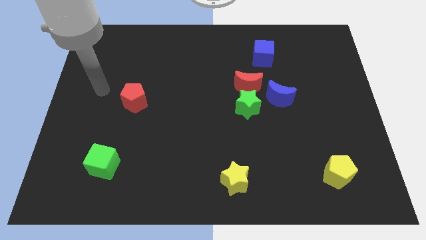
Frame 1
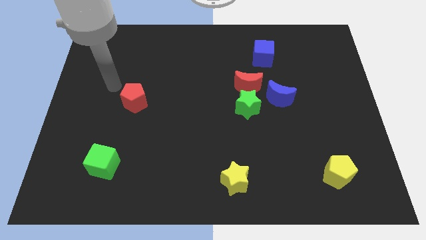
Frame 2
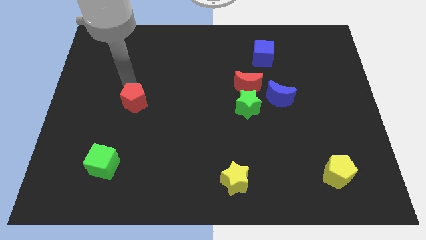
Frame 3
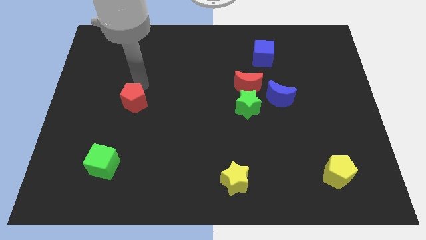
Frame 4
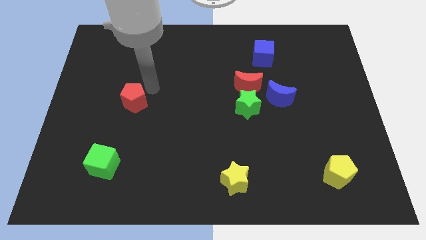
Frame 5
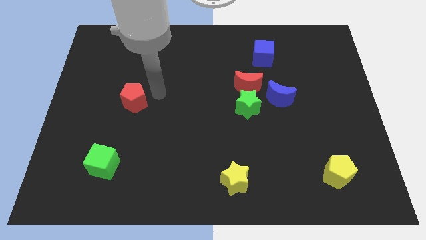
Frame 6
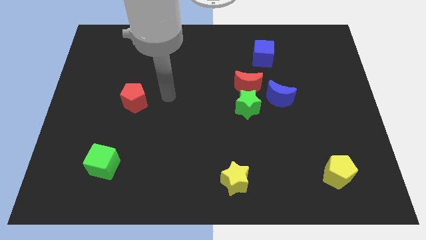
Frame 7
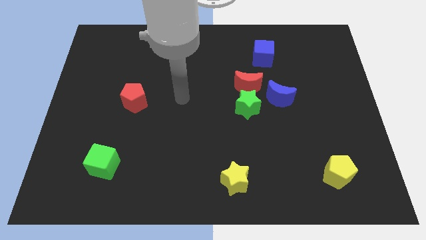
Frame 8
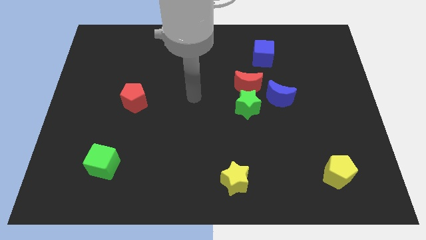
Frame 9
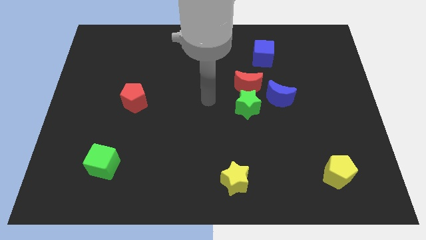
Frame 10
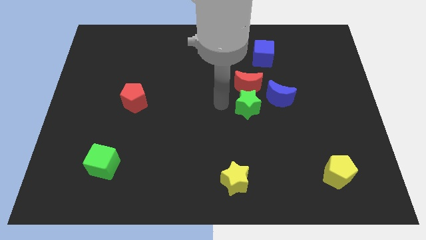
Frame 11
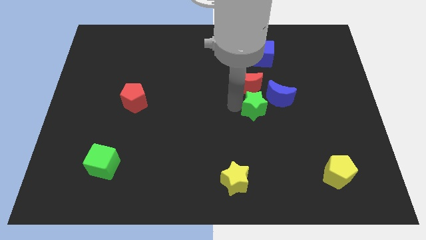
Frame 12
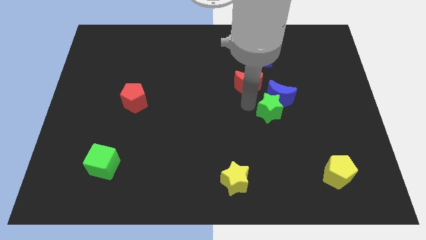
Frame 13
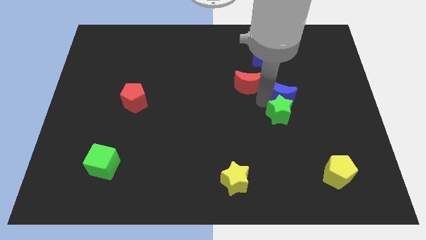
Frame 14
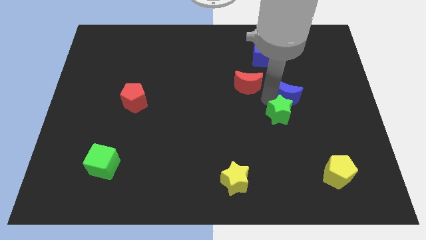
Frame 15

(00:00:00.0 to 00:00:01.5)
separate the red moon from the green star and blue moon

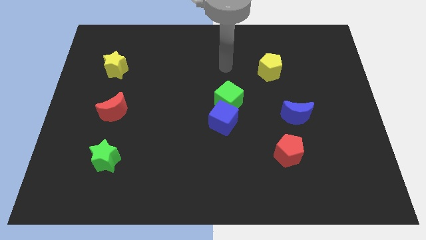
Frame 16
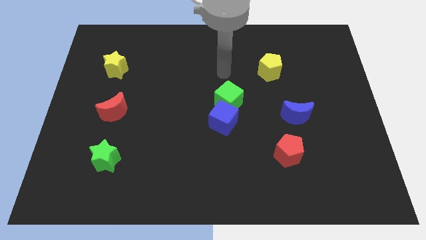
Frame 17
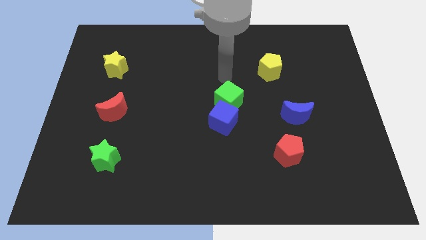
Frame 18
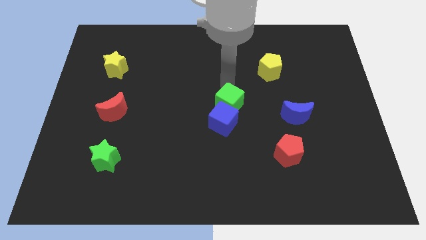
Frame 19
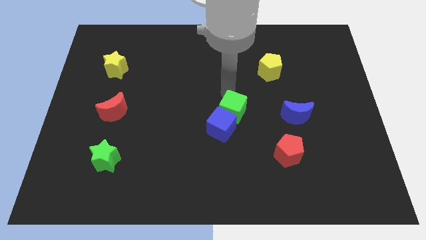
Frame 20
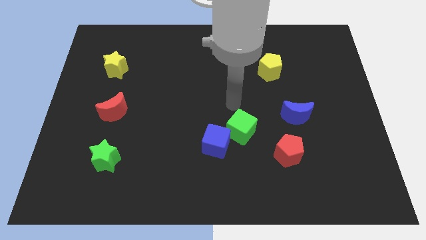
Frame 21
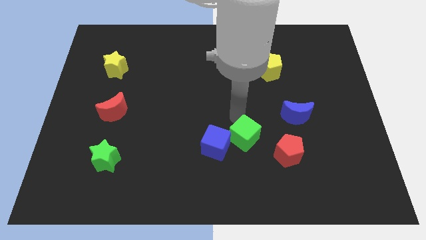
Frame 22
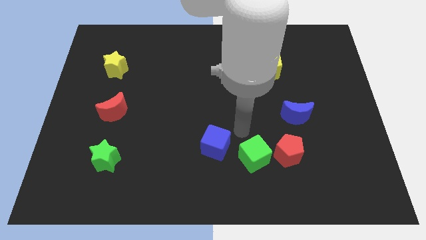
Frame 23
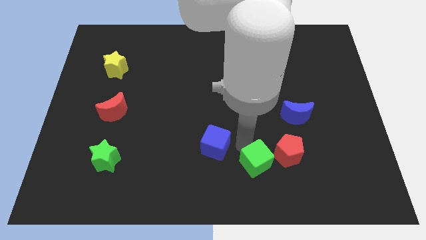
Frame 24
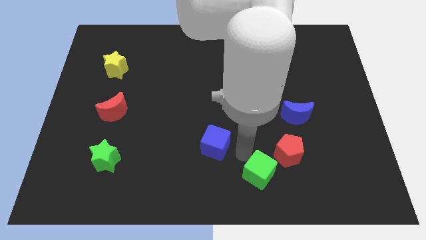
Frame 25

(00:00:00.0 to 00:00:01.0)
pull the blue cube apart from the green cube

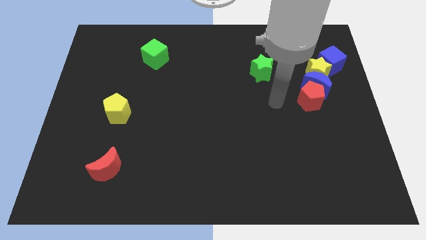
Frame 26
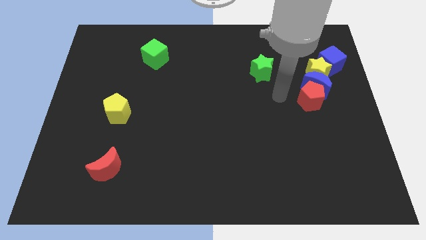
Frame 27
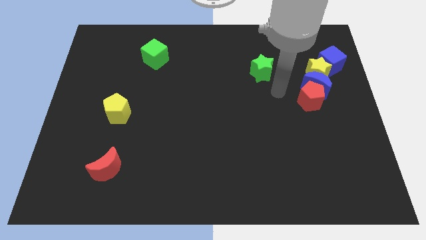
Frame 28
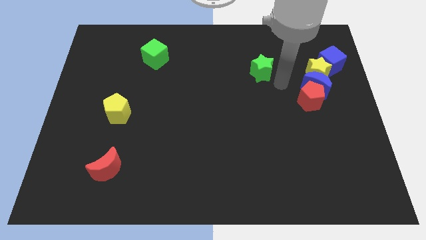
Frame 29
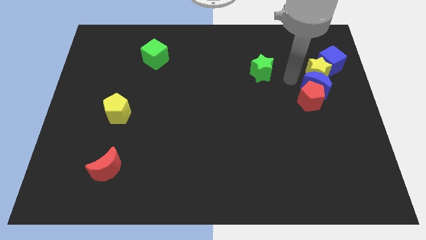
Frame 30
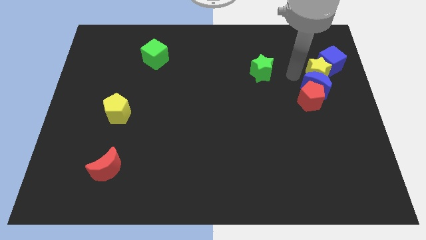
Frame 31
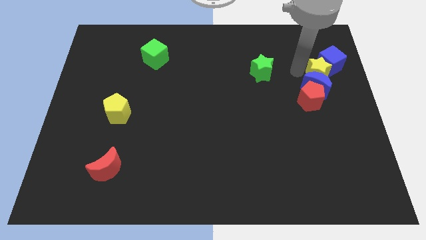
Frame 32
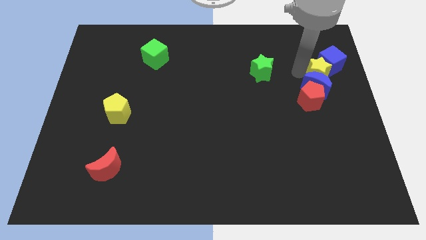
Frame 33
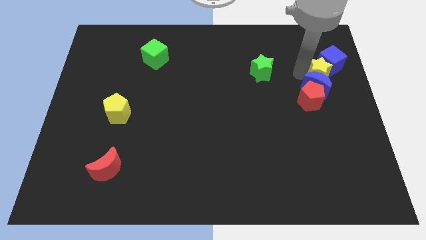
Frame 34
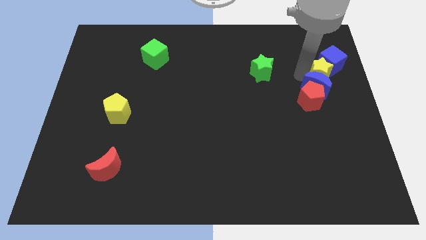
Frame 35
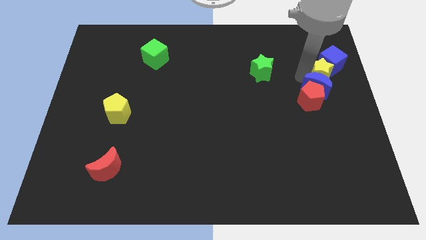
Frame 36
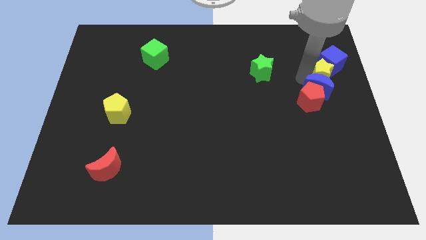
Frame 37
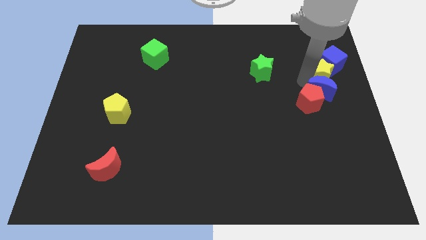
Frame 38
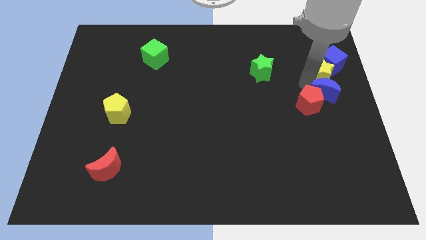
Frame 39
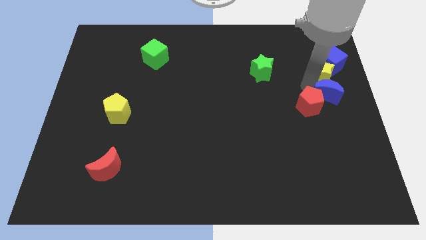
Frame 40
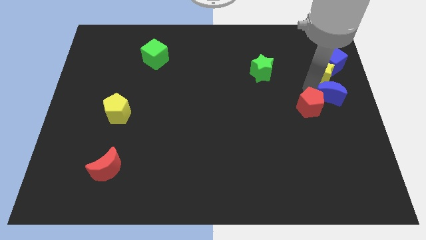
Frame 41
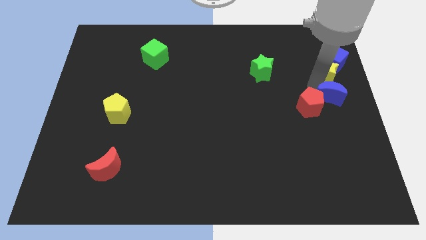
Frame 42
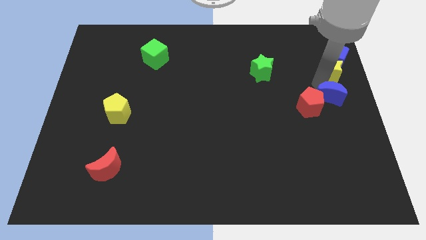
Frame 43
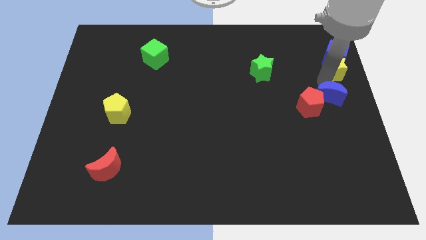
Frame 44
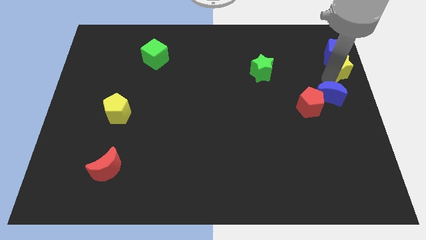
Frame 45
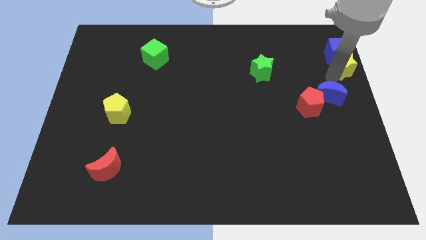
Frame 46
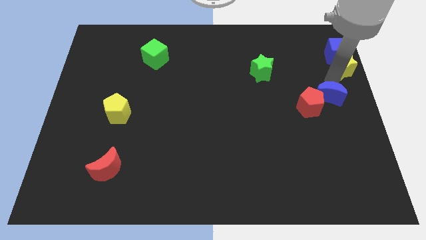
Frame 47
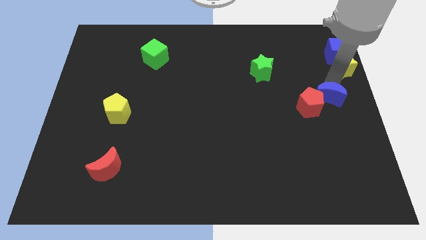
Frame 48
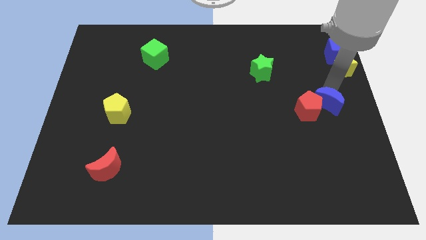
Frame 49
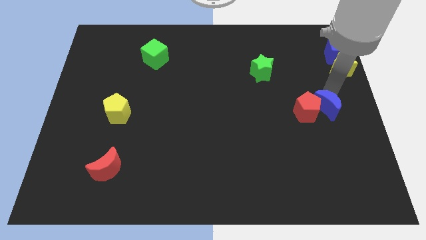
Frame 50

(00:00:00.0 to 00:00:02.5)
pull the blue moon apart from the group

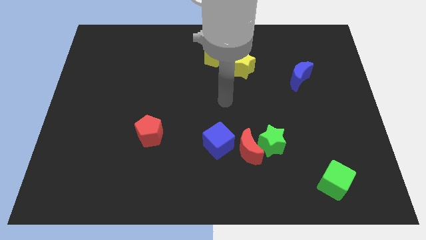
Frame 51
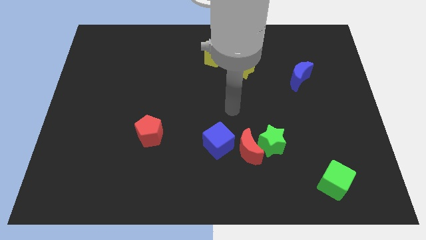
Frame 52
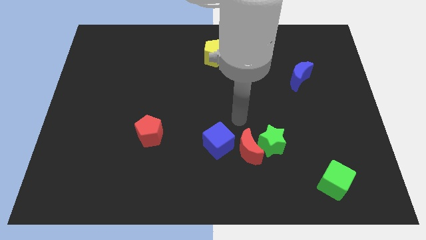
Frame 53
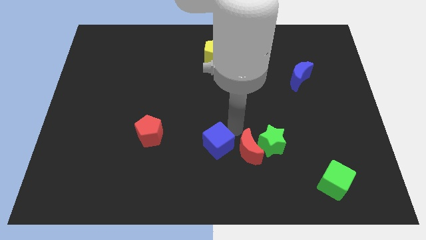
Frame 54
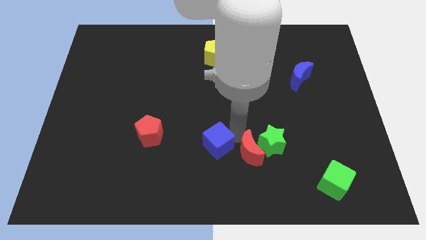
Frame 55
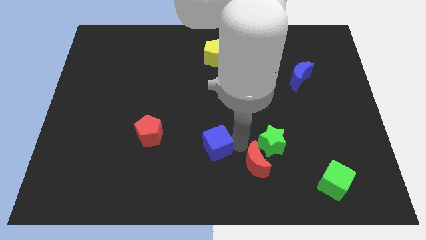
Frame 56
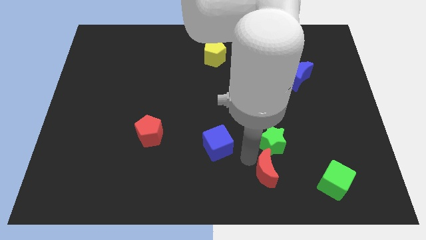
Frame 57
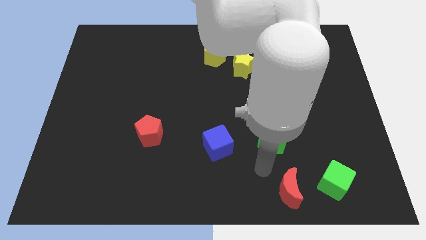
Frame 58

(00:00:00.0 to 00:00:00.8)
move the green star away from the red moon

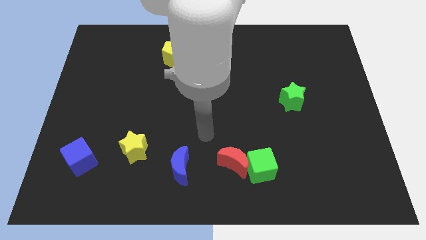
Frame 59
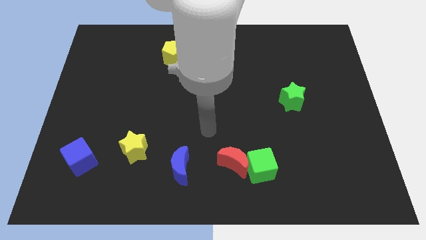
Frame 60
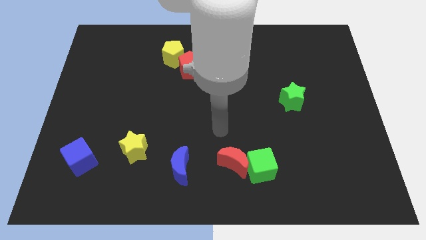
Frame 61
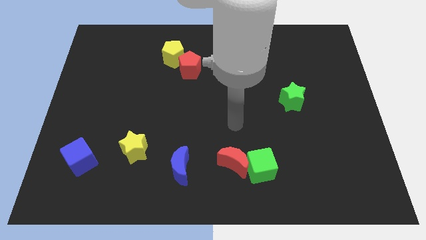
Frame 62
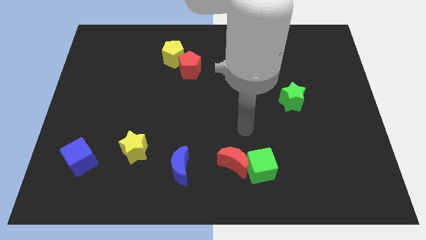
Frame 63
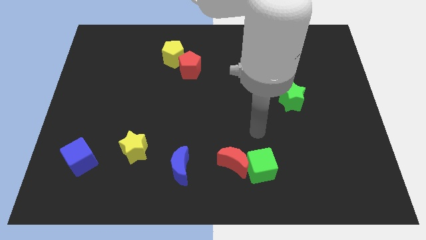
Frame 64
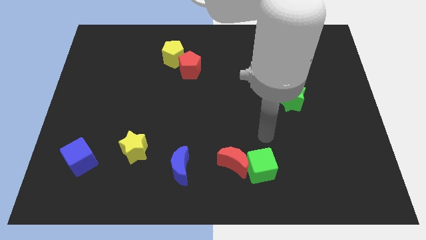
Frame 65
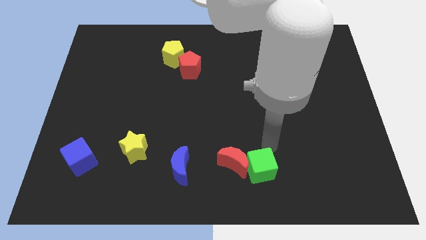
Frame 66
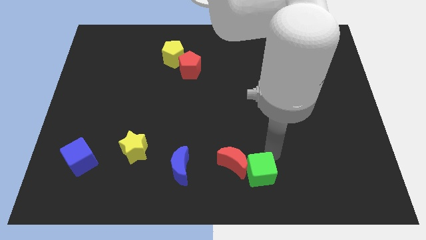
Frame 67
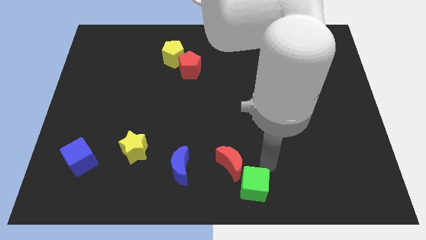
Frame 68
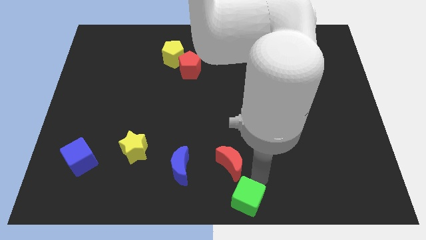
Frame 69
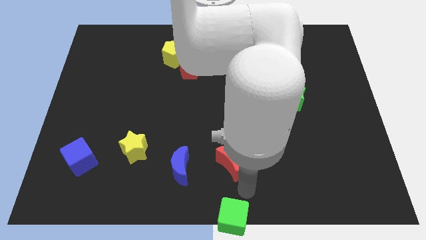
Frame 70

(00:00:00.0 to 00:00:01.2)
move the red moon away from the green cube

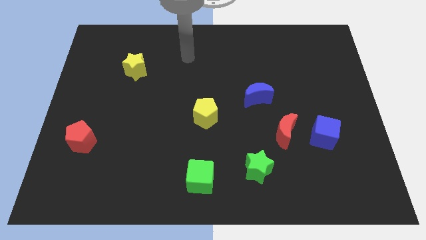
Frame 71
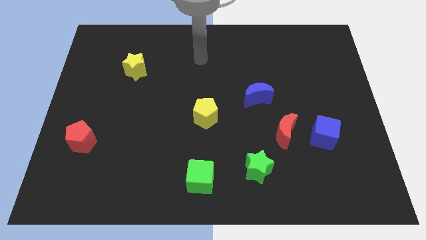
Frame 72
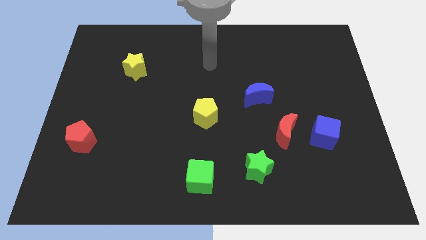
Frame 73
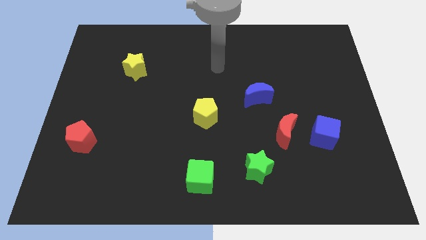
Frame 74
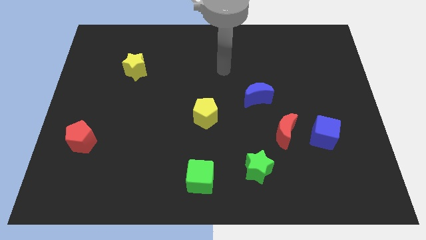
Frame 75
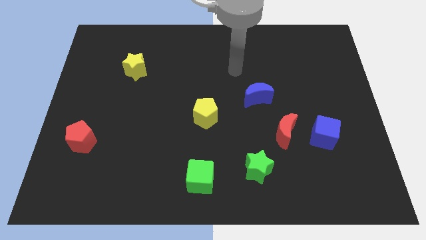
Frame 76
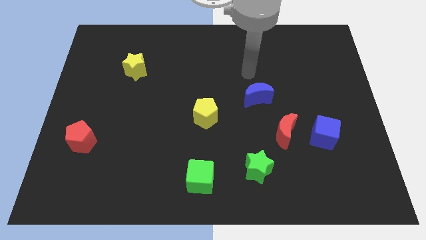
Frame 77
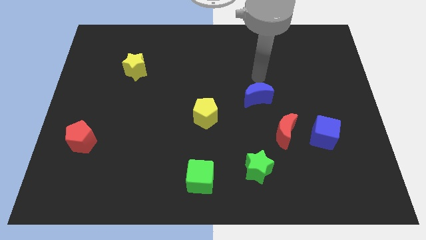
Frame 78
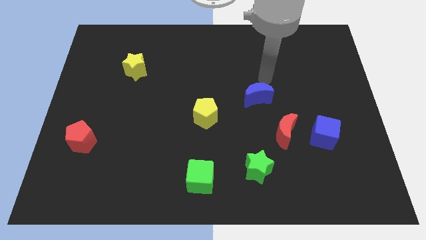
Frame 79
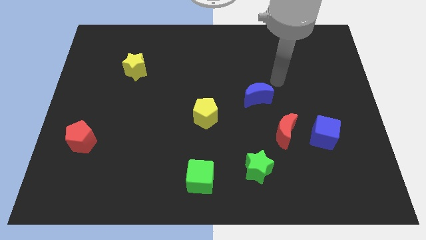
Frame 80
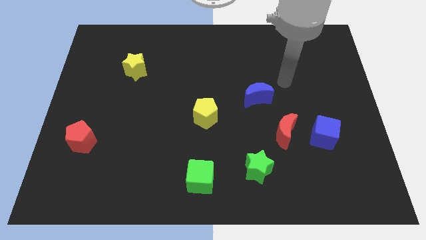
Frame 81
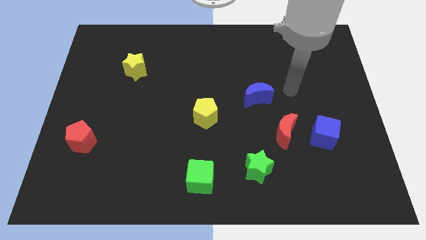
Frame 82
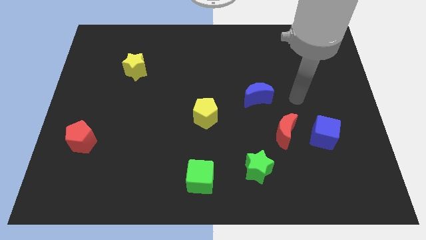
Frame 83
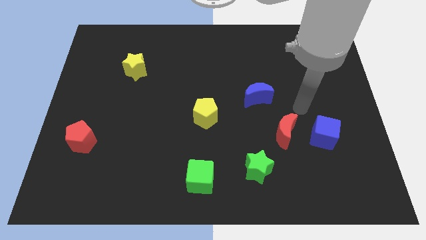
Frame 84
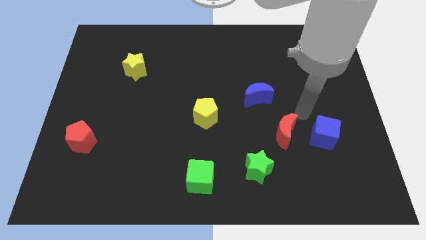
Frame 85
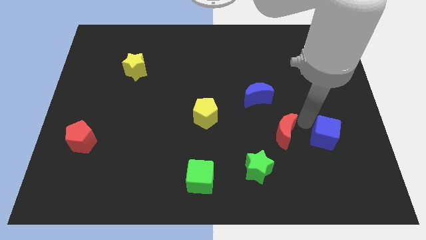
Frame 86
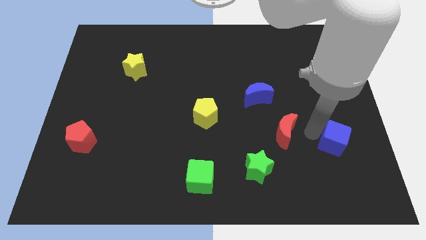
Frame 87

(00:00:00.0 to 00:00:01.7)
separate the red moon from the blue cube

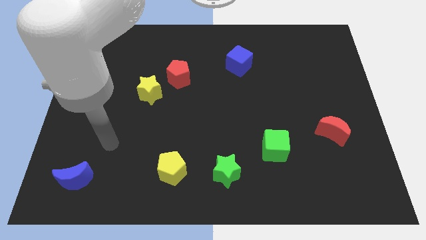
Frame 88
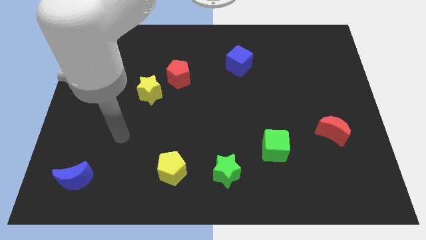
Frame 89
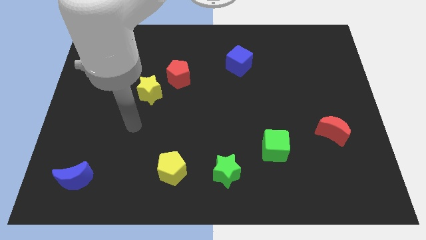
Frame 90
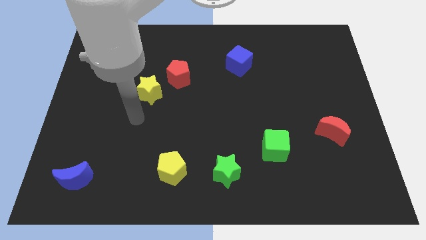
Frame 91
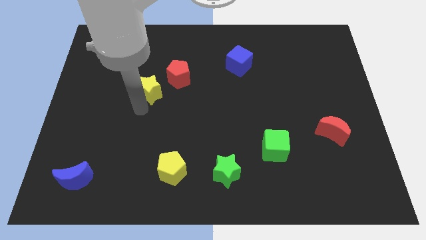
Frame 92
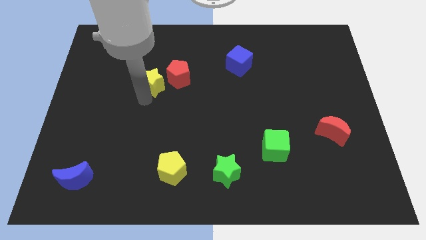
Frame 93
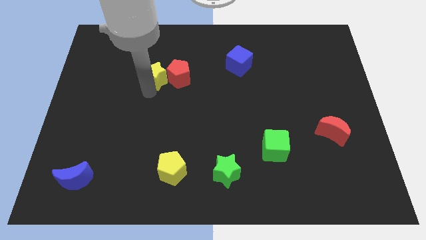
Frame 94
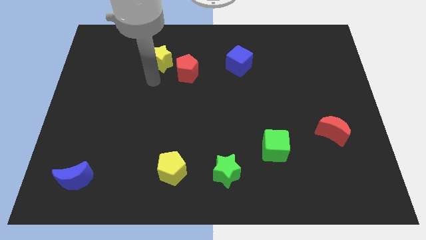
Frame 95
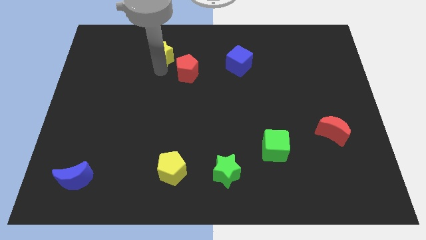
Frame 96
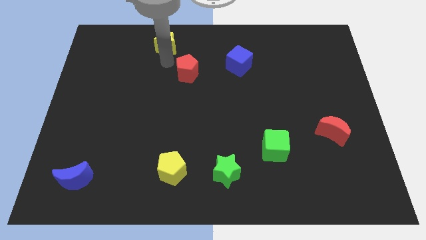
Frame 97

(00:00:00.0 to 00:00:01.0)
move the red pentagon away from the yellow star
